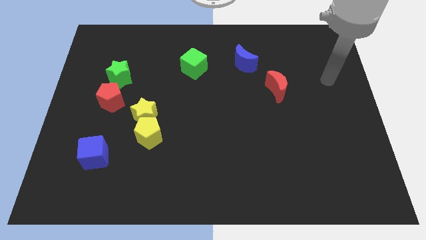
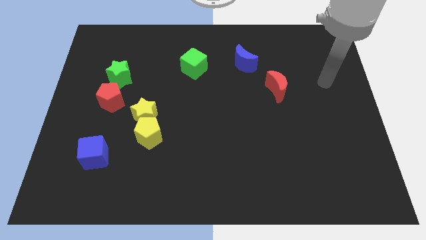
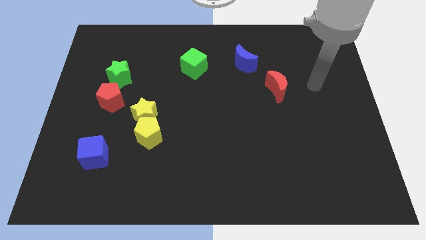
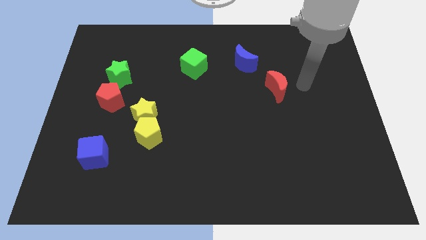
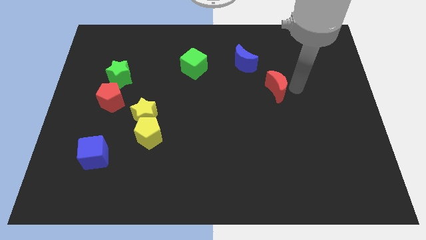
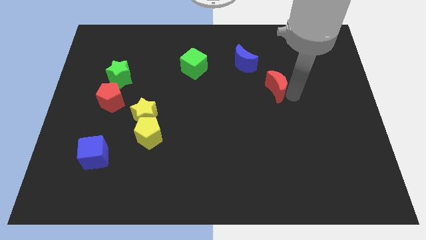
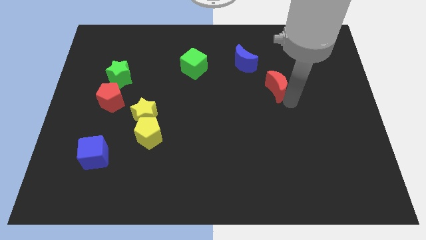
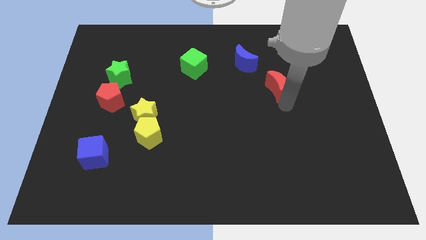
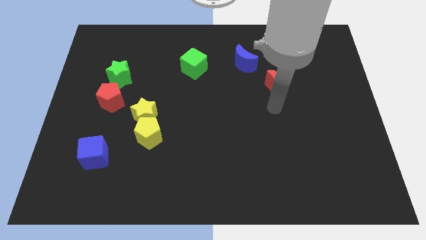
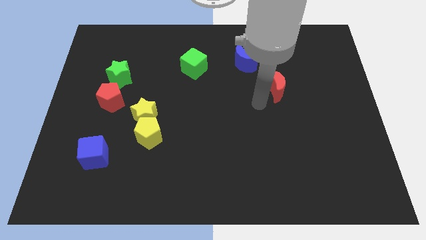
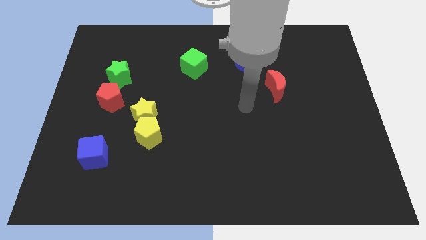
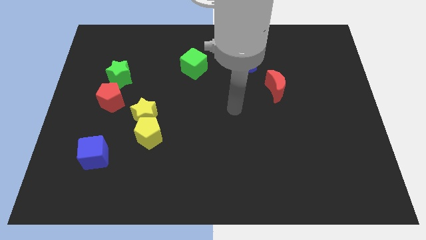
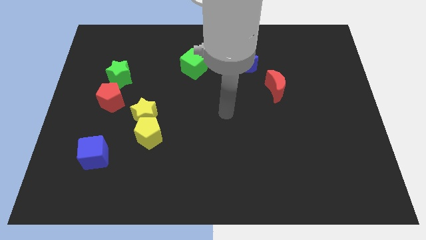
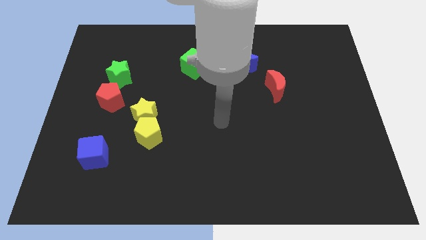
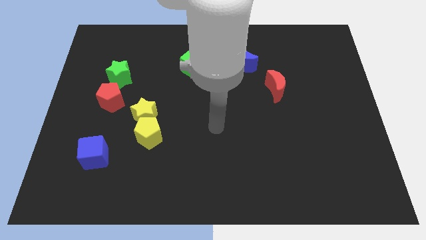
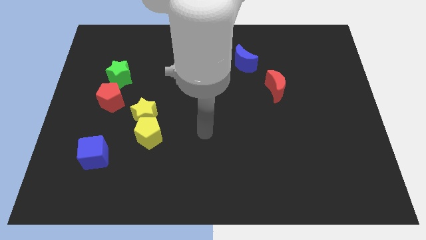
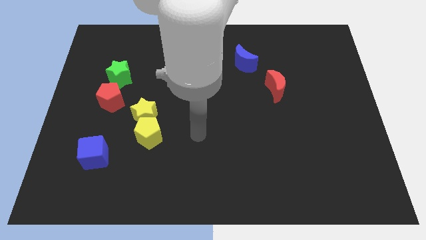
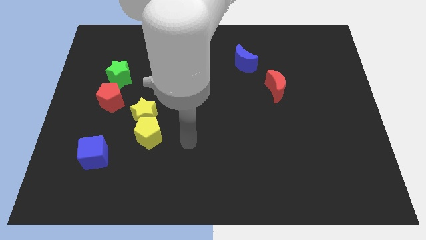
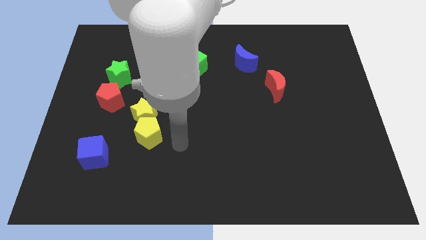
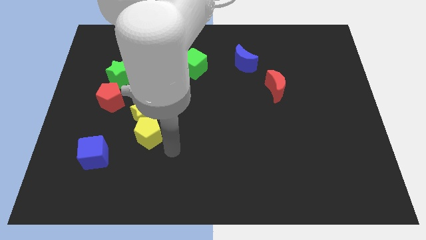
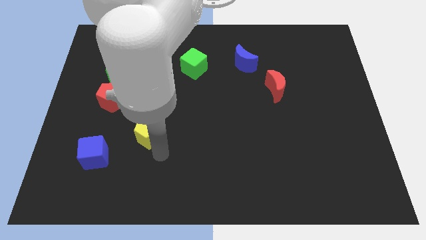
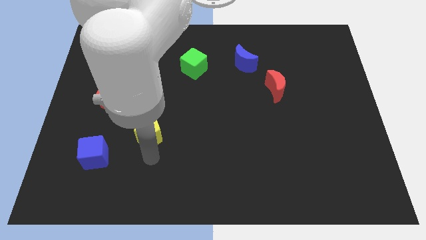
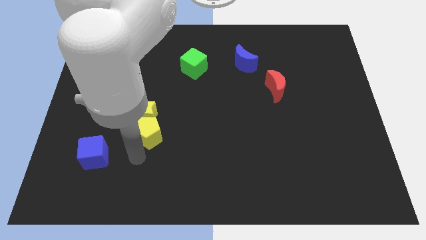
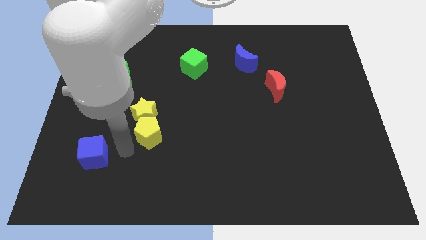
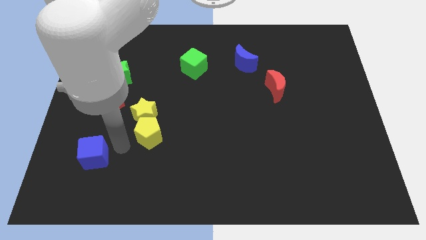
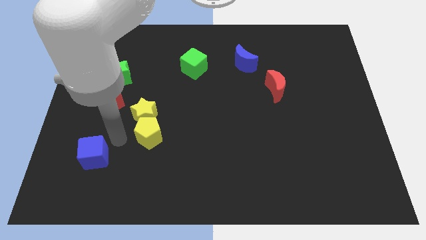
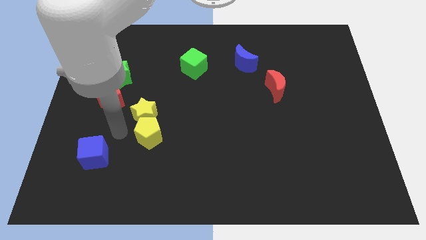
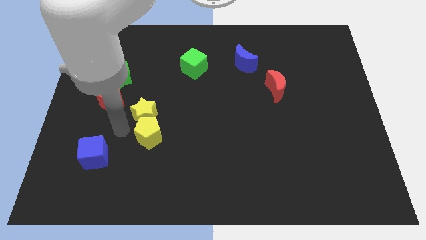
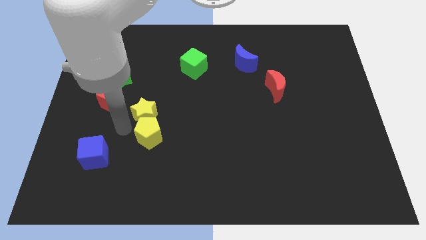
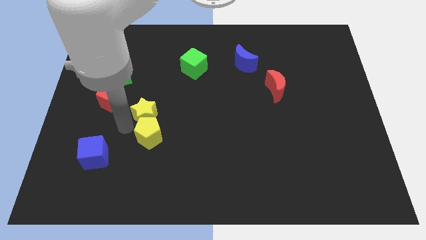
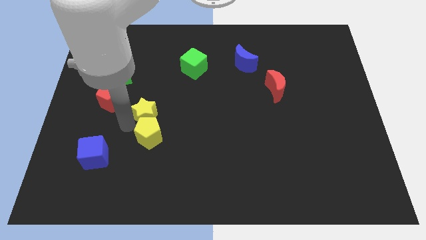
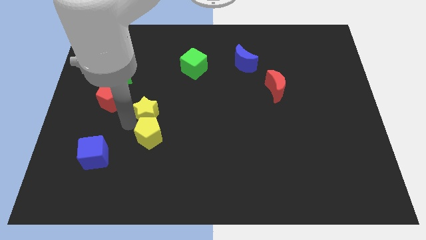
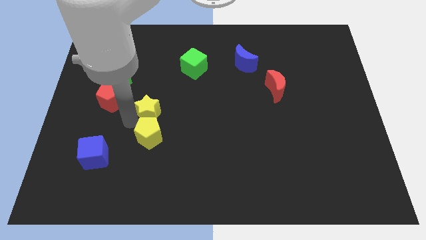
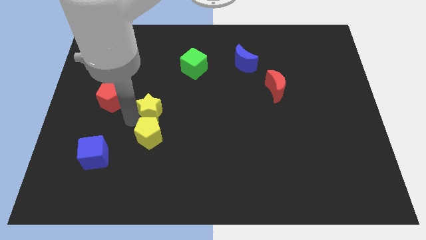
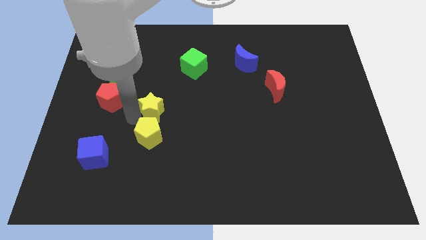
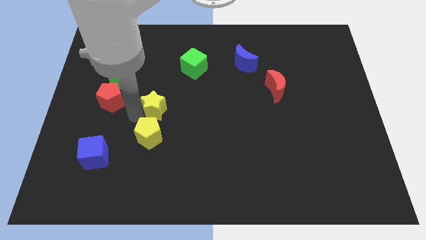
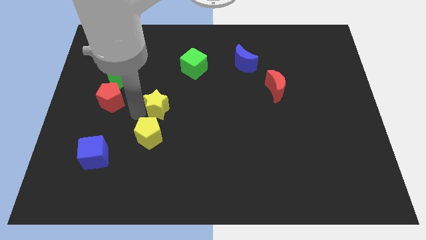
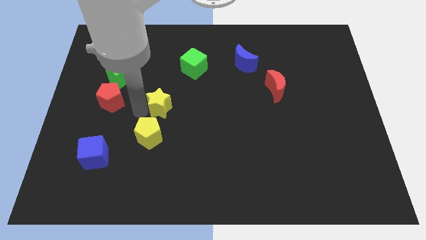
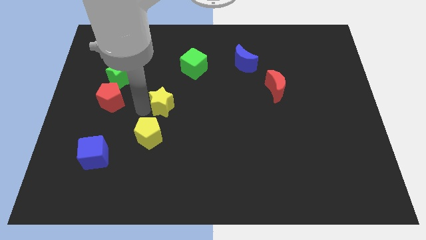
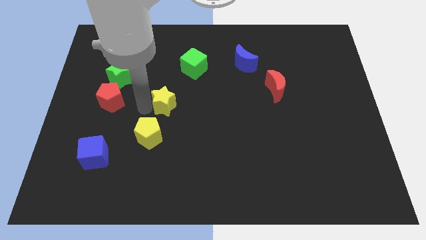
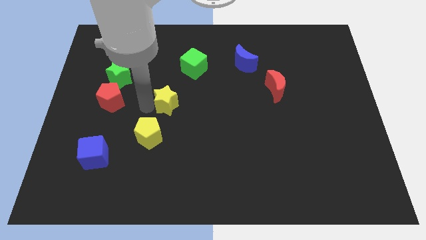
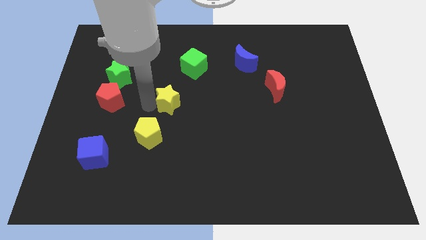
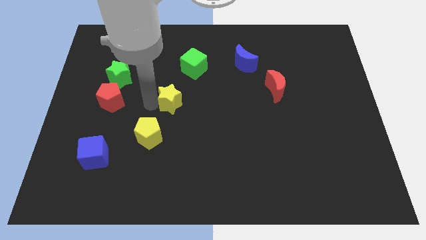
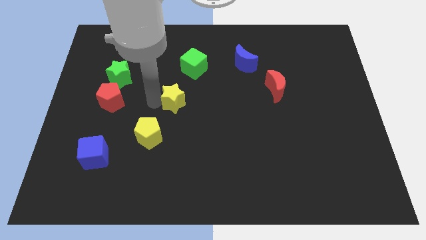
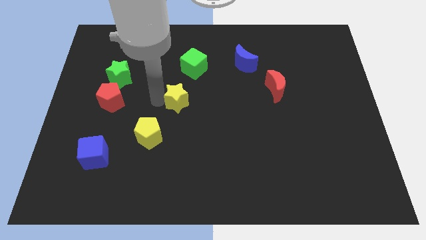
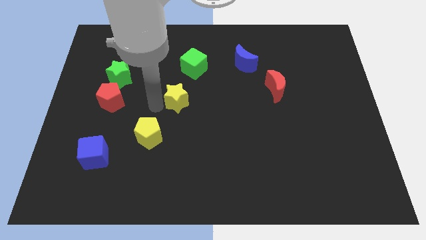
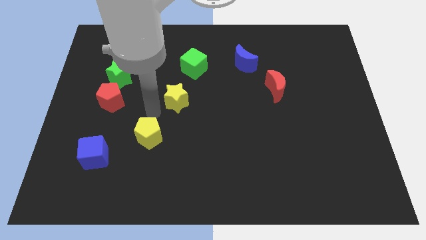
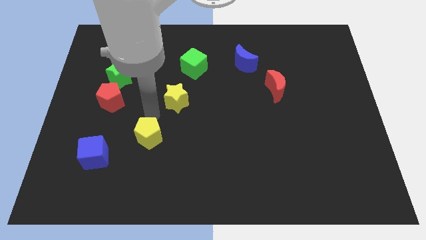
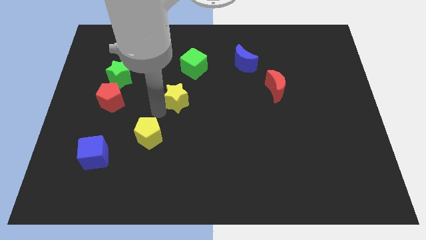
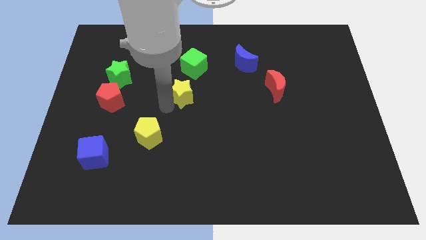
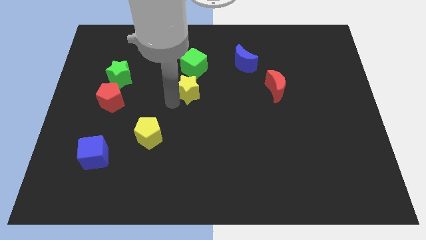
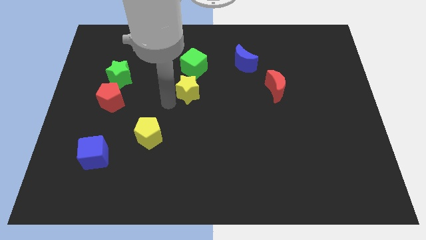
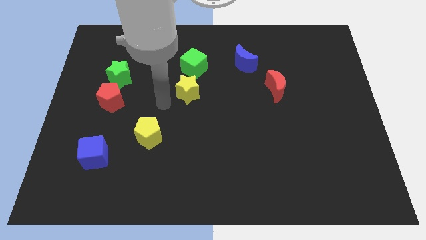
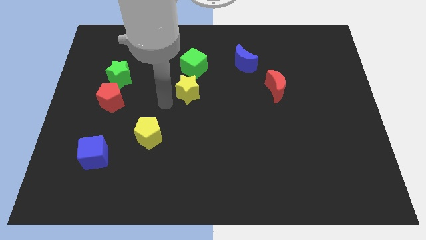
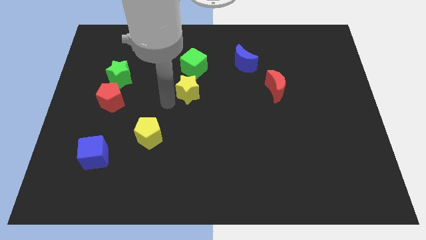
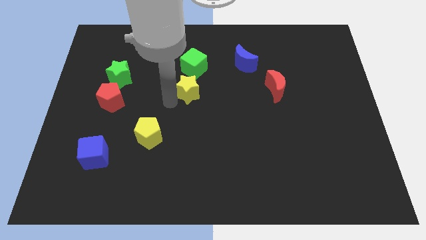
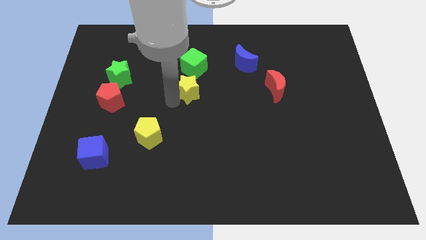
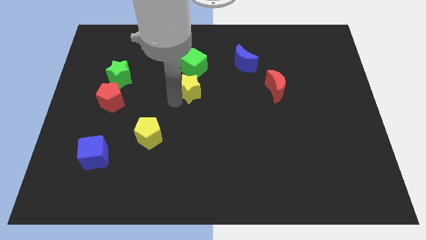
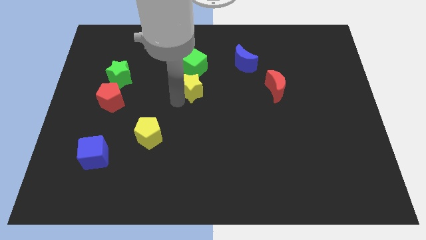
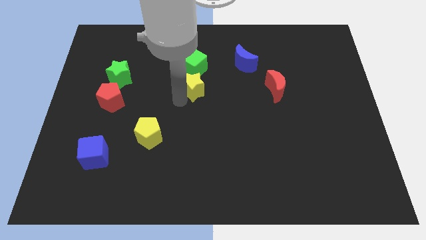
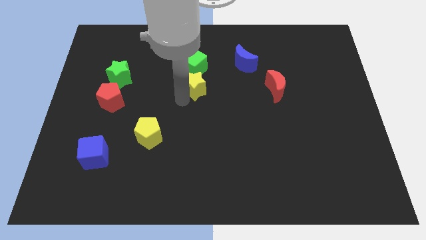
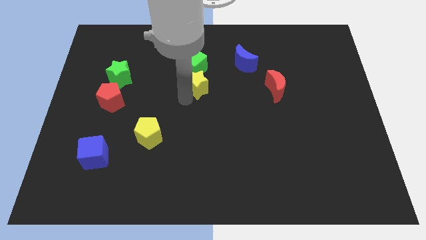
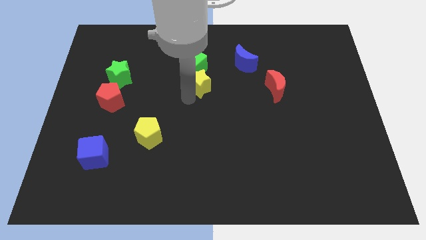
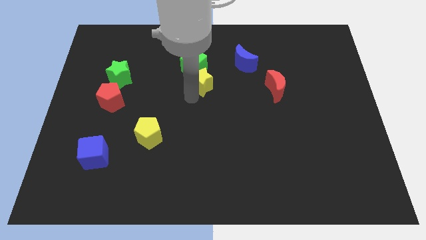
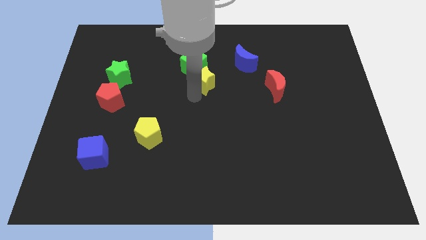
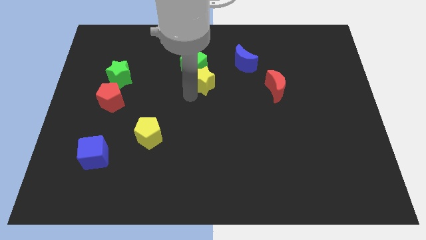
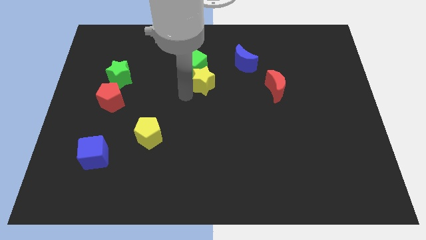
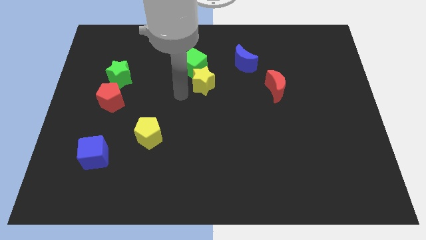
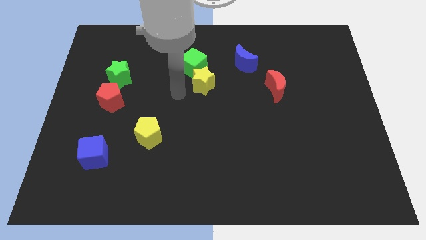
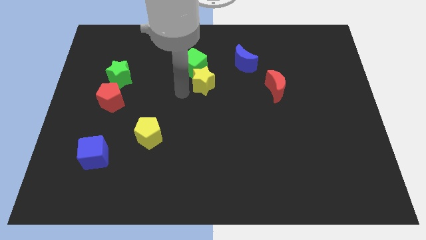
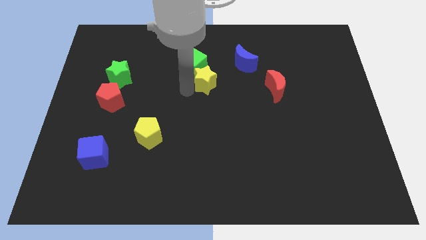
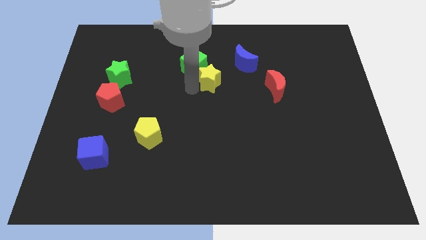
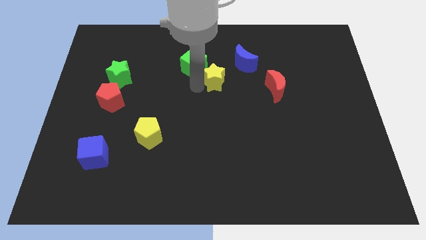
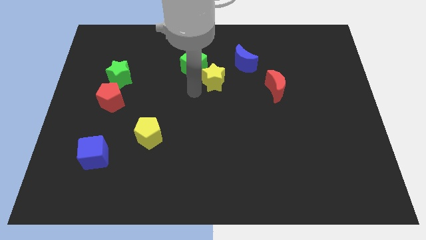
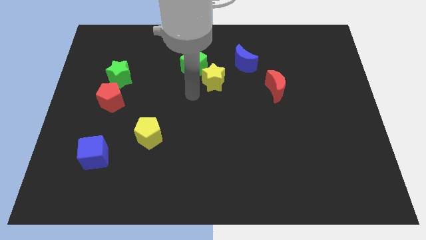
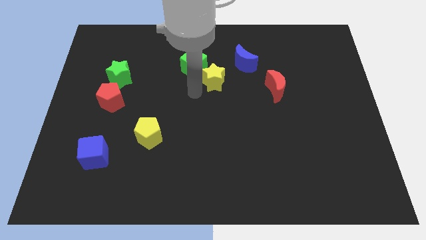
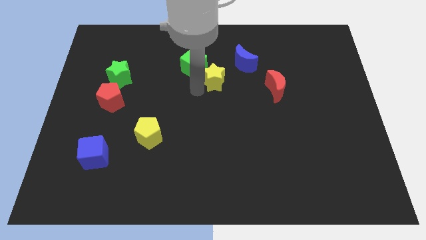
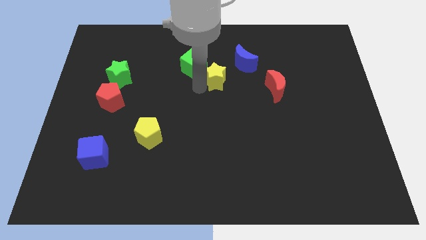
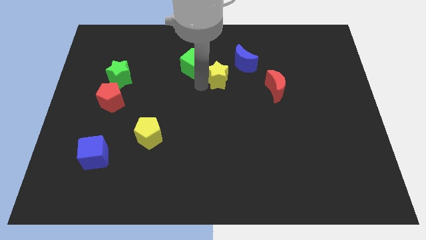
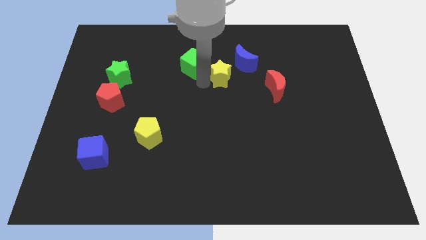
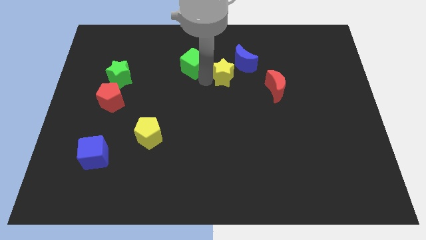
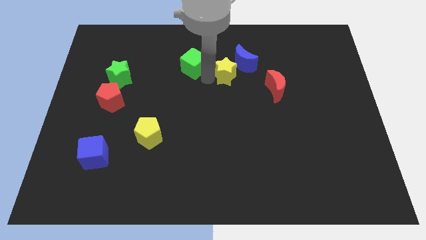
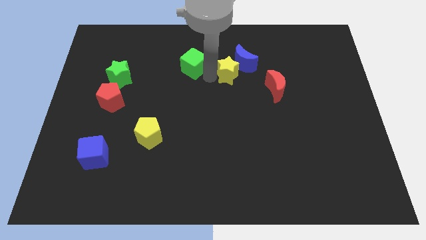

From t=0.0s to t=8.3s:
put the yellow star to the blue moon
